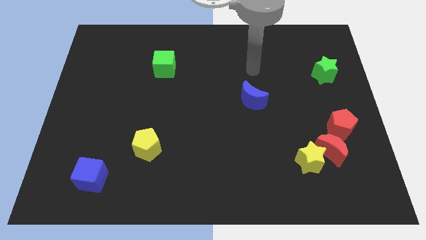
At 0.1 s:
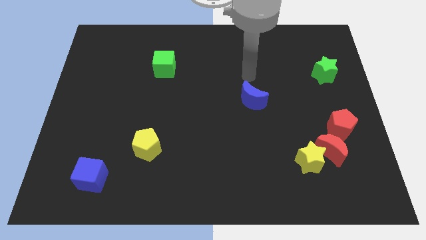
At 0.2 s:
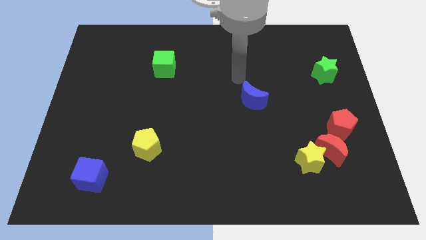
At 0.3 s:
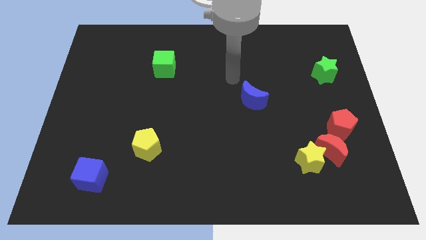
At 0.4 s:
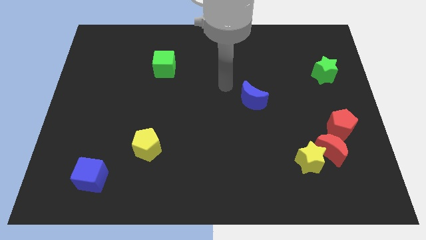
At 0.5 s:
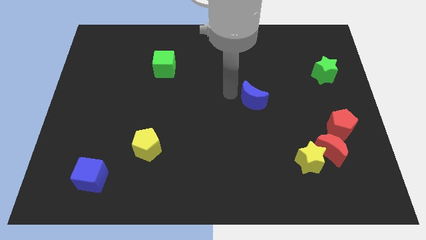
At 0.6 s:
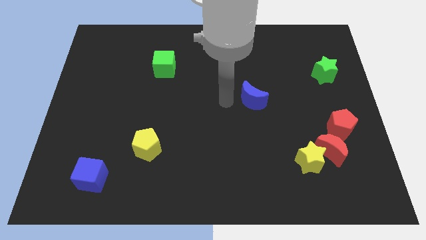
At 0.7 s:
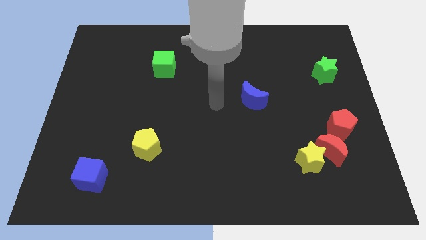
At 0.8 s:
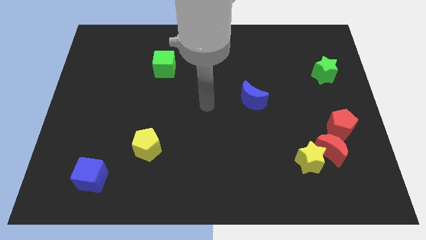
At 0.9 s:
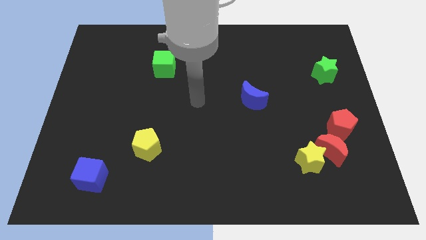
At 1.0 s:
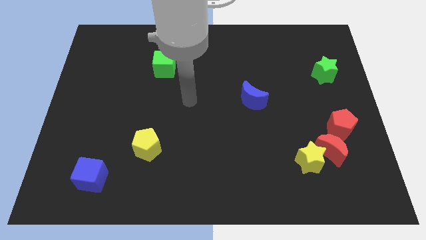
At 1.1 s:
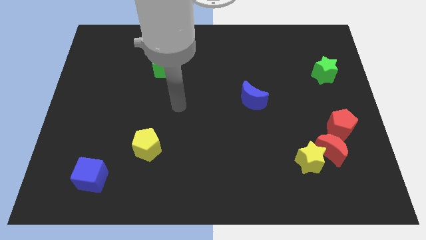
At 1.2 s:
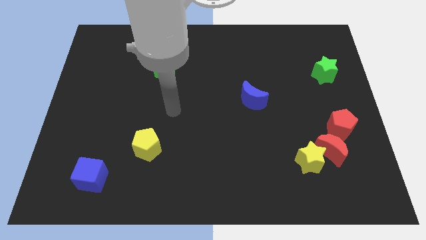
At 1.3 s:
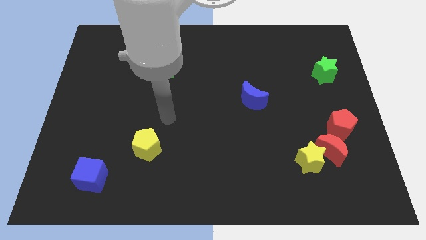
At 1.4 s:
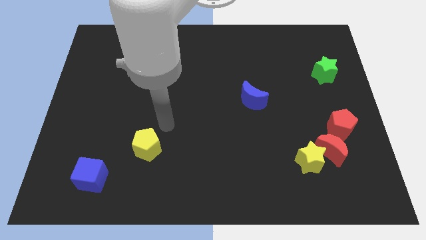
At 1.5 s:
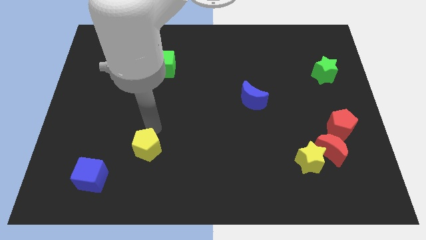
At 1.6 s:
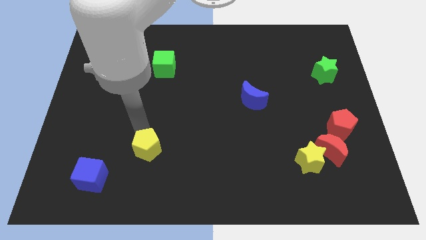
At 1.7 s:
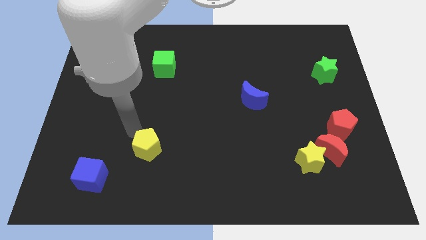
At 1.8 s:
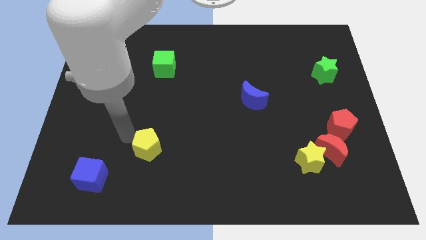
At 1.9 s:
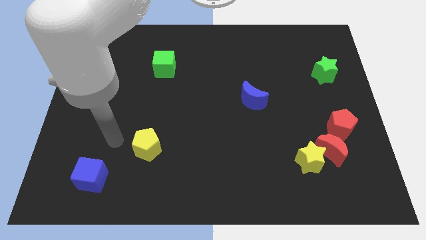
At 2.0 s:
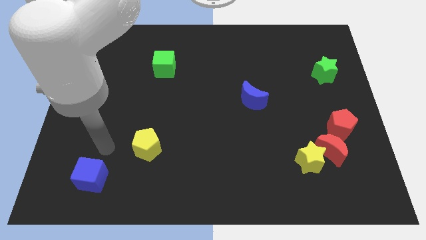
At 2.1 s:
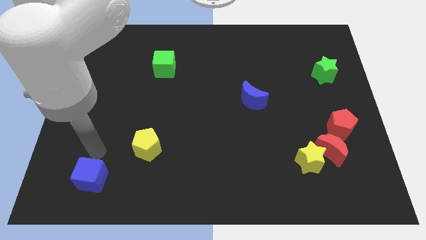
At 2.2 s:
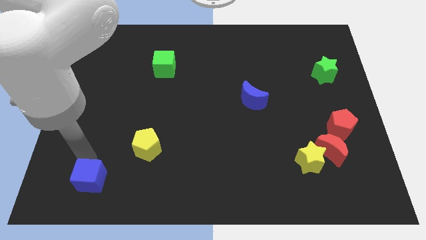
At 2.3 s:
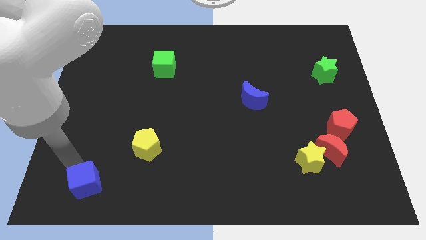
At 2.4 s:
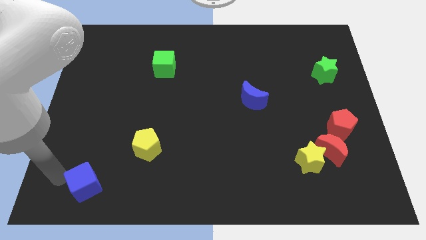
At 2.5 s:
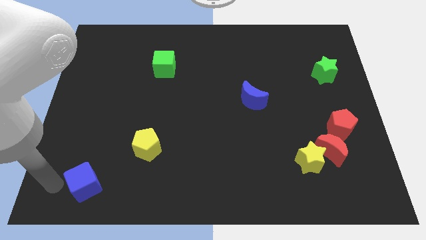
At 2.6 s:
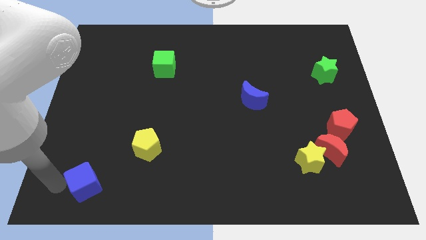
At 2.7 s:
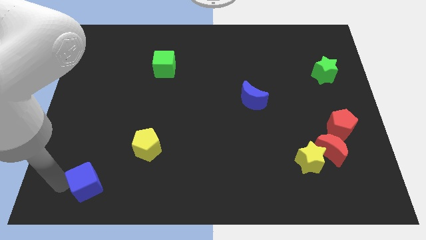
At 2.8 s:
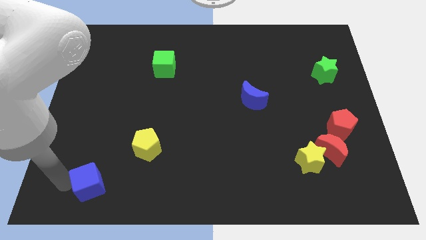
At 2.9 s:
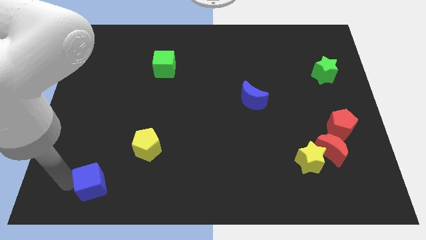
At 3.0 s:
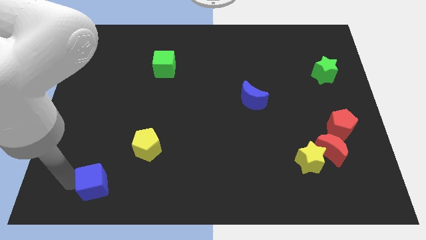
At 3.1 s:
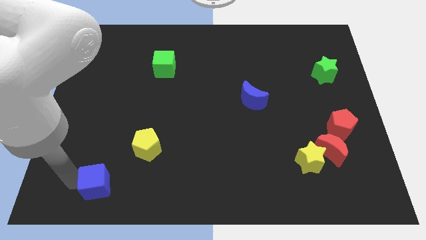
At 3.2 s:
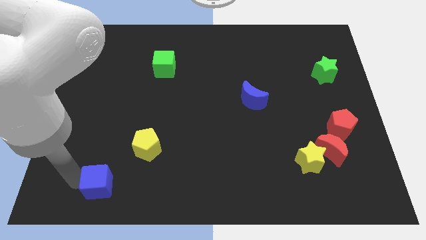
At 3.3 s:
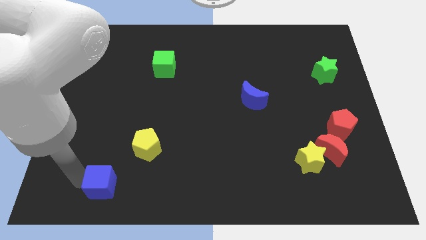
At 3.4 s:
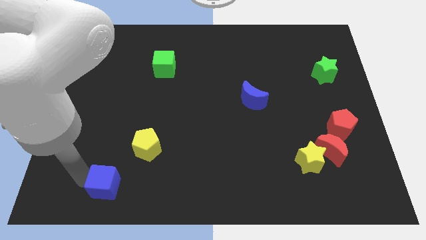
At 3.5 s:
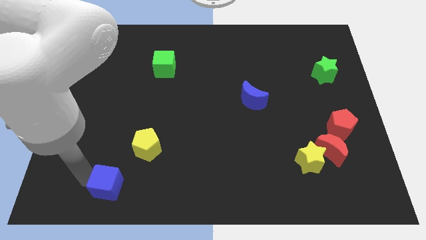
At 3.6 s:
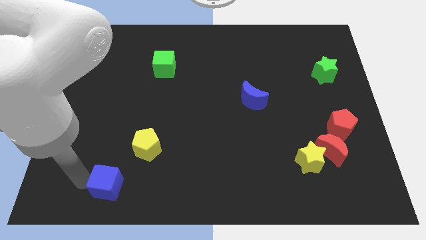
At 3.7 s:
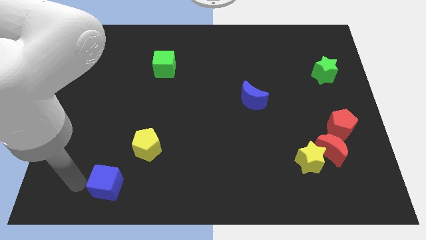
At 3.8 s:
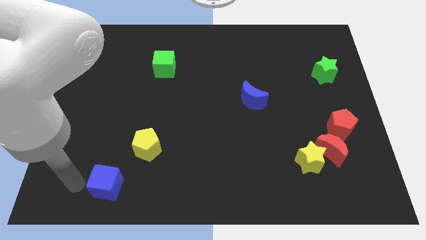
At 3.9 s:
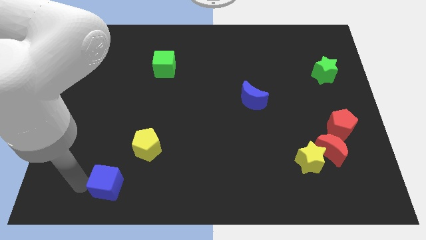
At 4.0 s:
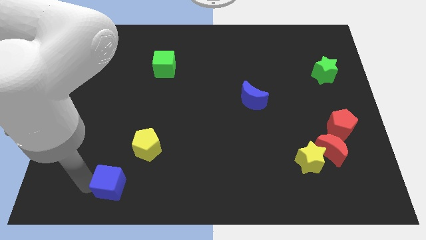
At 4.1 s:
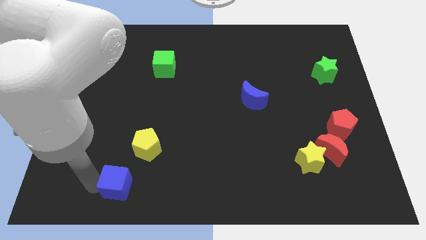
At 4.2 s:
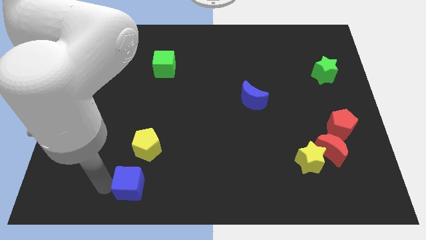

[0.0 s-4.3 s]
slide the blue cube right a little

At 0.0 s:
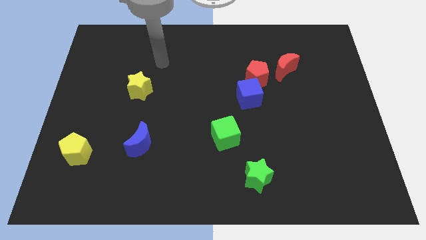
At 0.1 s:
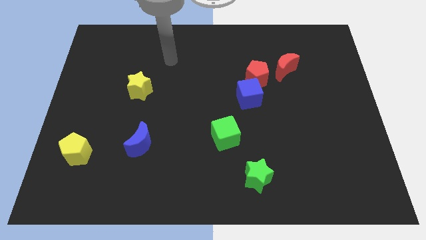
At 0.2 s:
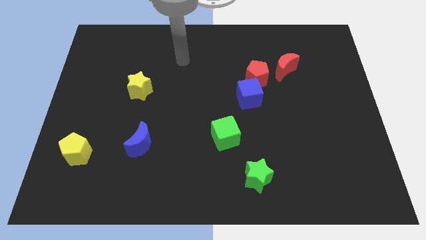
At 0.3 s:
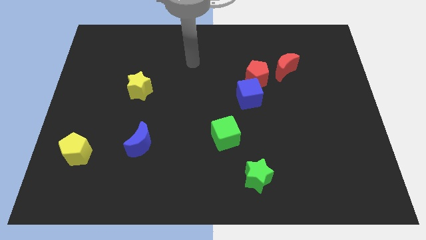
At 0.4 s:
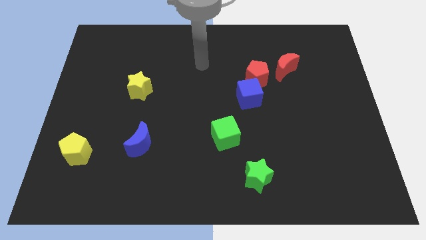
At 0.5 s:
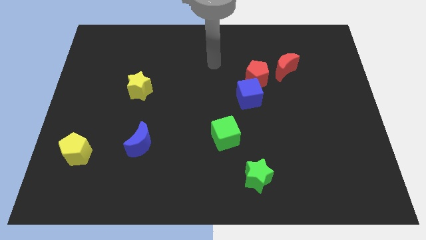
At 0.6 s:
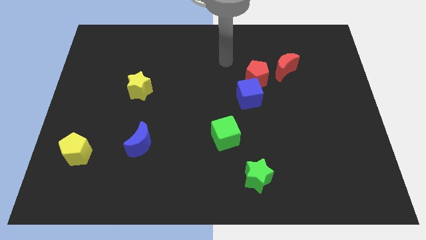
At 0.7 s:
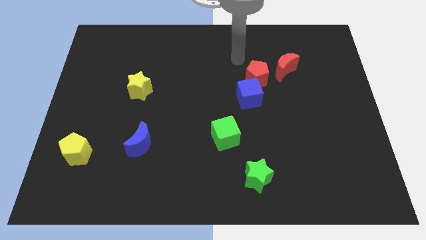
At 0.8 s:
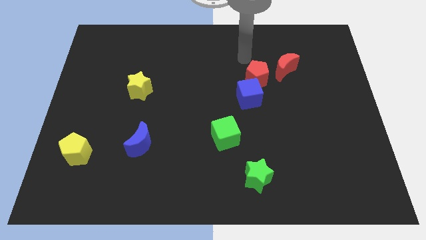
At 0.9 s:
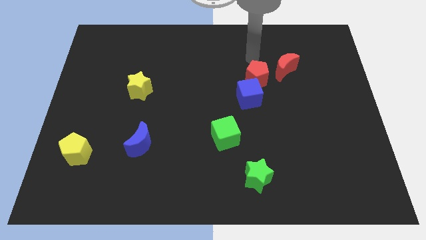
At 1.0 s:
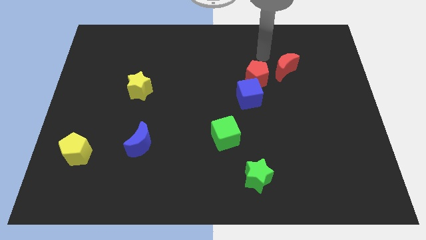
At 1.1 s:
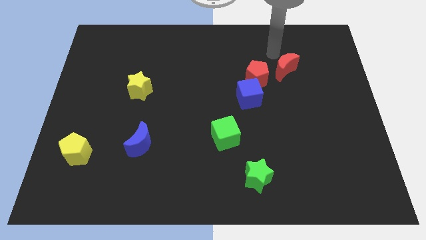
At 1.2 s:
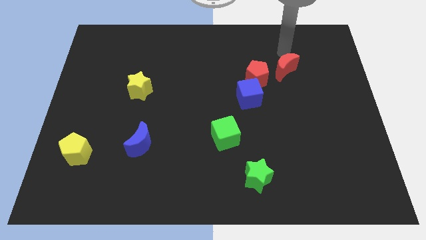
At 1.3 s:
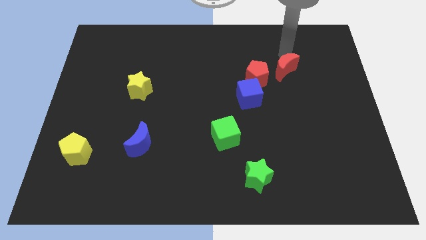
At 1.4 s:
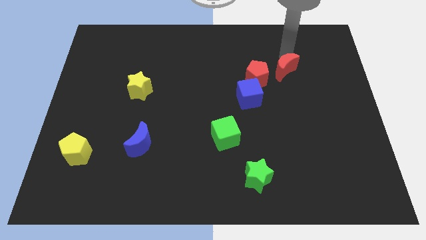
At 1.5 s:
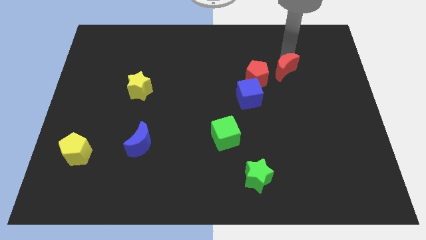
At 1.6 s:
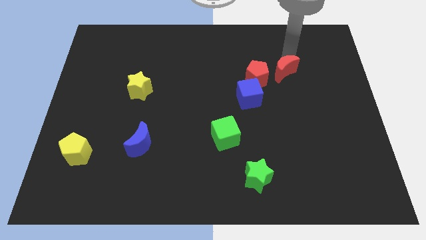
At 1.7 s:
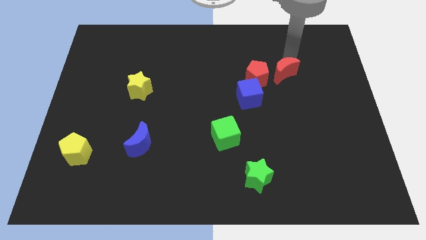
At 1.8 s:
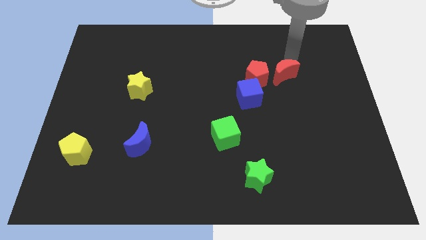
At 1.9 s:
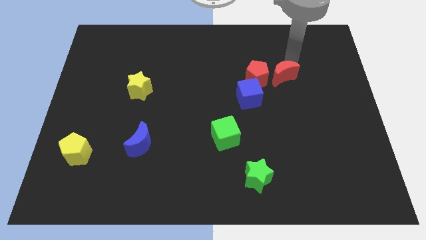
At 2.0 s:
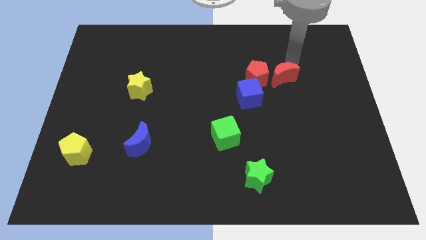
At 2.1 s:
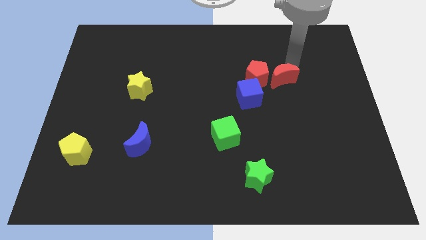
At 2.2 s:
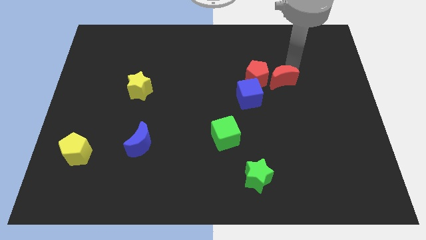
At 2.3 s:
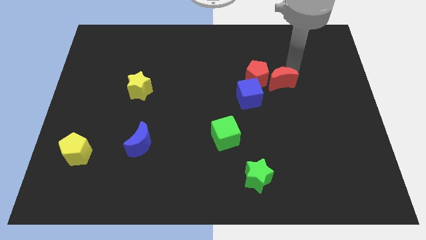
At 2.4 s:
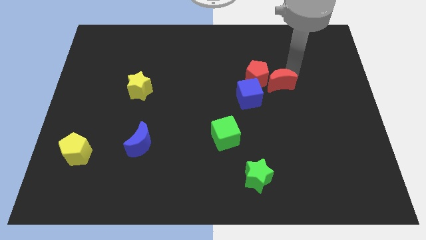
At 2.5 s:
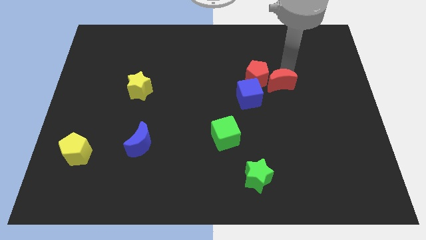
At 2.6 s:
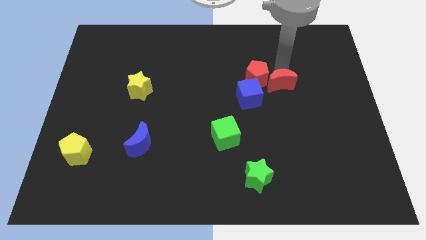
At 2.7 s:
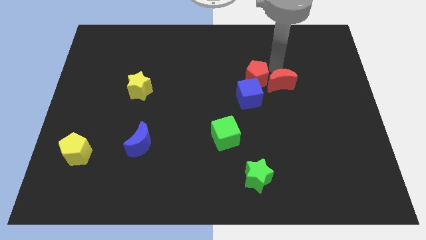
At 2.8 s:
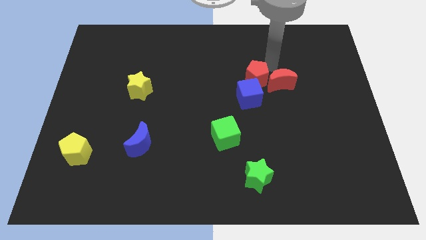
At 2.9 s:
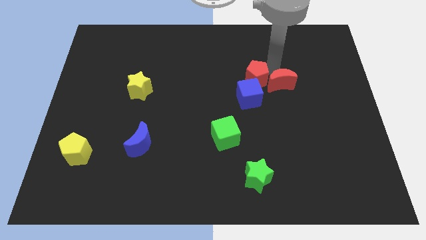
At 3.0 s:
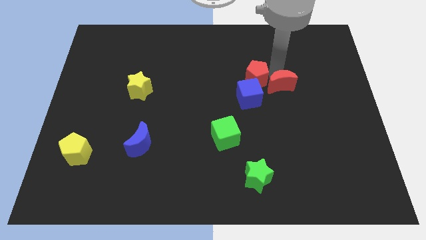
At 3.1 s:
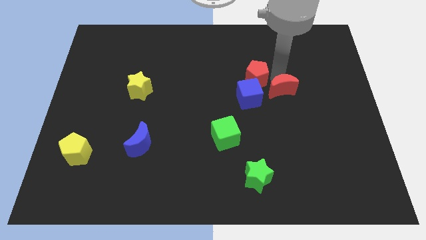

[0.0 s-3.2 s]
push the red moon downwards somewhat

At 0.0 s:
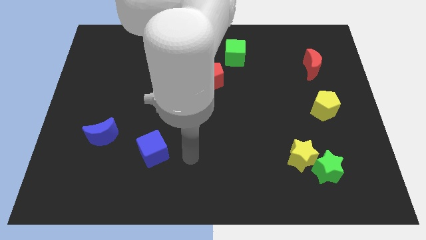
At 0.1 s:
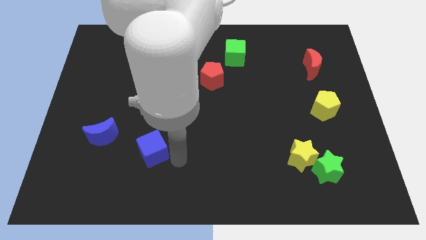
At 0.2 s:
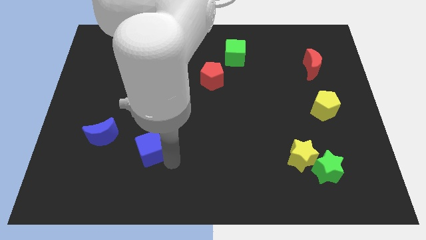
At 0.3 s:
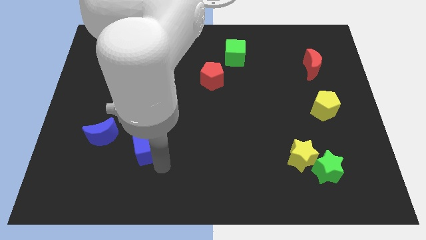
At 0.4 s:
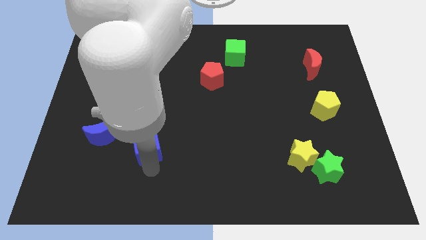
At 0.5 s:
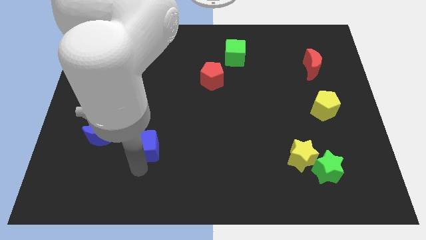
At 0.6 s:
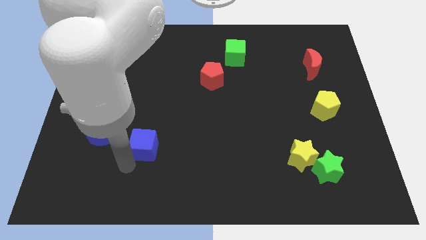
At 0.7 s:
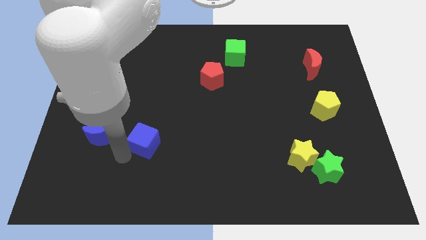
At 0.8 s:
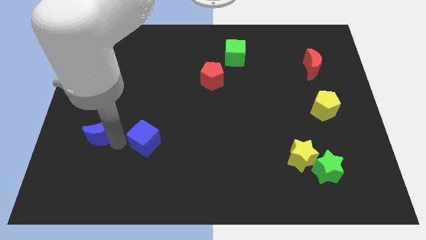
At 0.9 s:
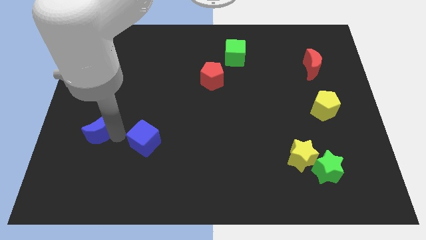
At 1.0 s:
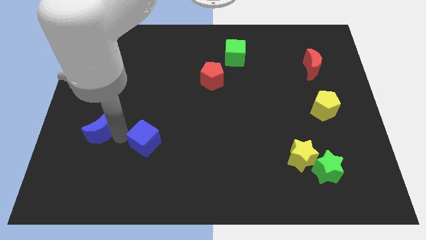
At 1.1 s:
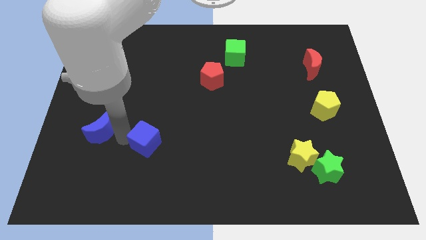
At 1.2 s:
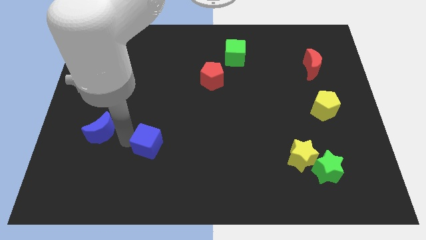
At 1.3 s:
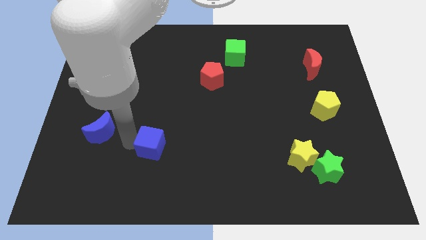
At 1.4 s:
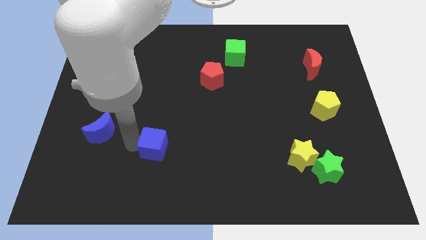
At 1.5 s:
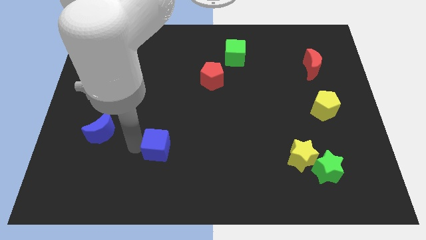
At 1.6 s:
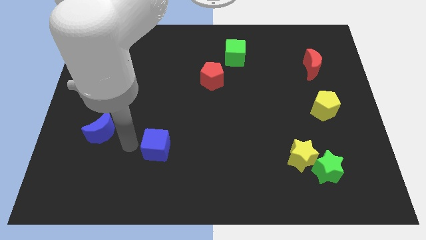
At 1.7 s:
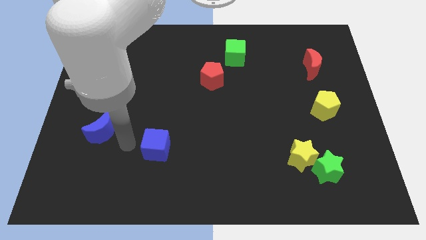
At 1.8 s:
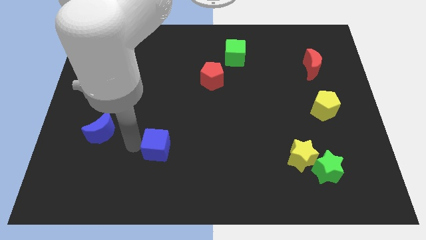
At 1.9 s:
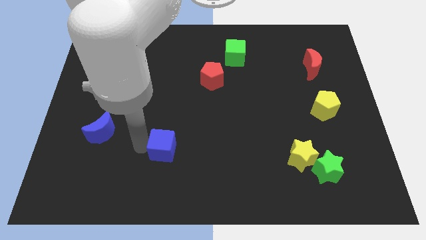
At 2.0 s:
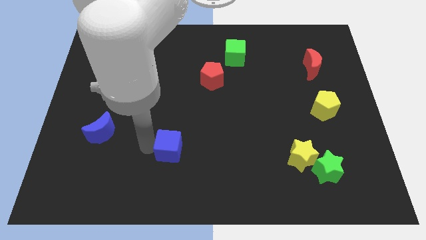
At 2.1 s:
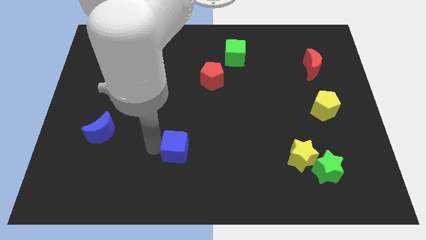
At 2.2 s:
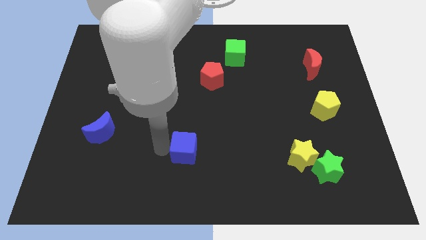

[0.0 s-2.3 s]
slide the blue cube right slightly
